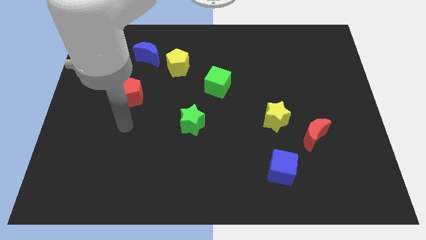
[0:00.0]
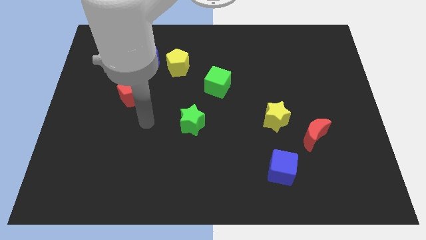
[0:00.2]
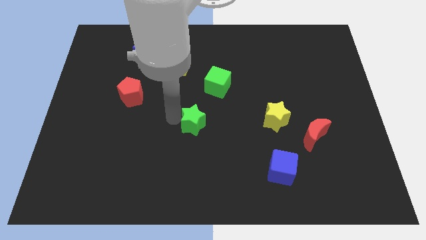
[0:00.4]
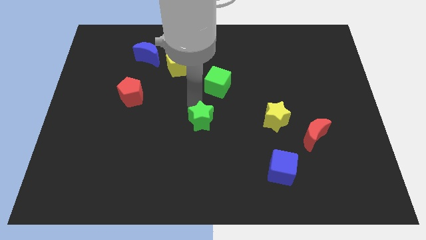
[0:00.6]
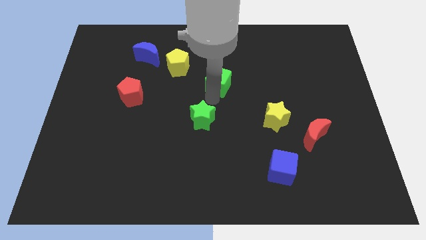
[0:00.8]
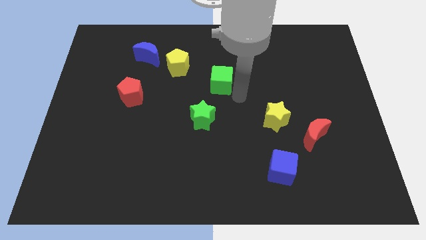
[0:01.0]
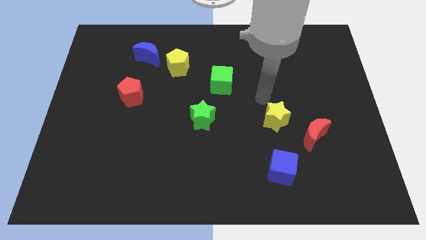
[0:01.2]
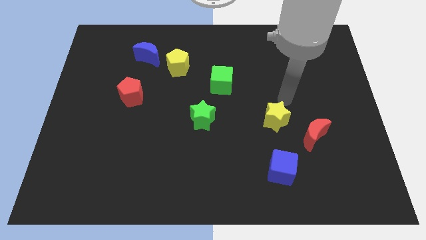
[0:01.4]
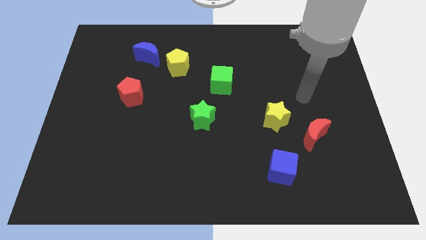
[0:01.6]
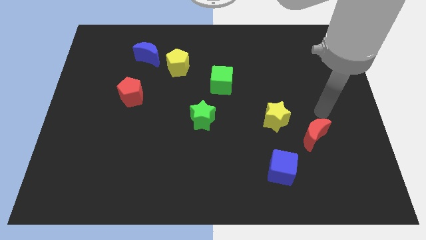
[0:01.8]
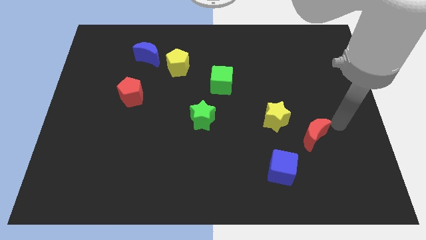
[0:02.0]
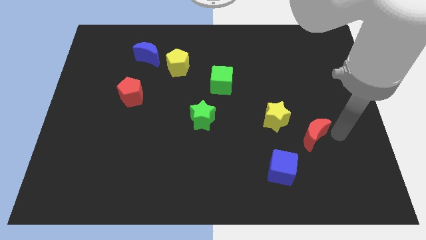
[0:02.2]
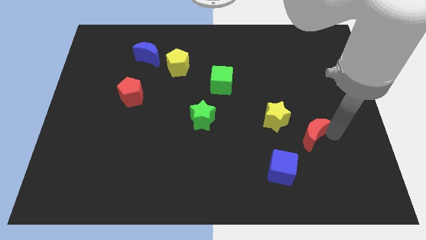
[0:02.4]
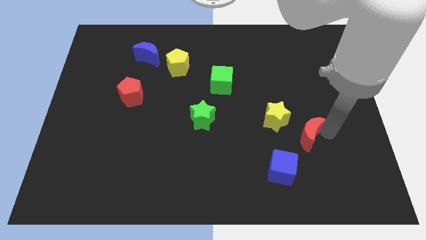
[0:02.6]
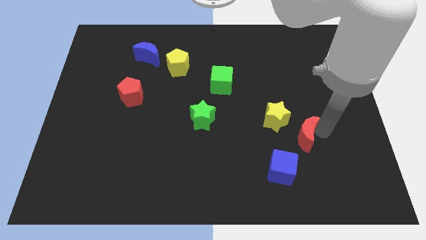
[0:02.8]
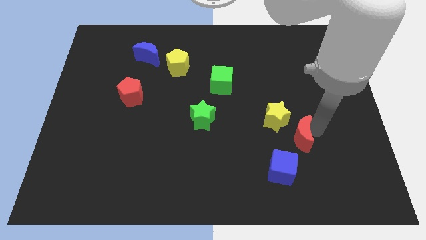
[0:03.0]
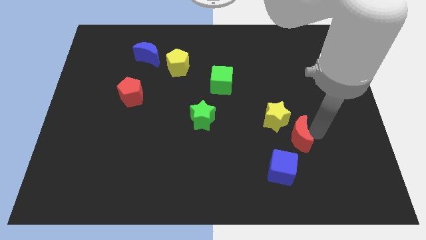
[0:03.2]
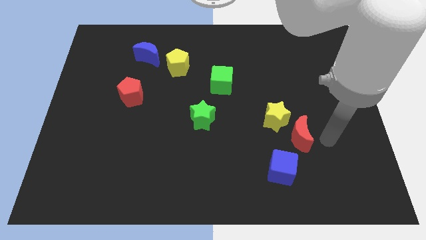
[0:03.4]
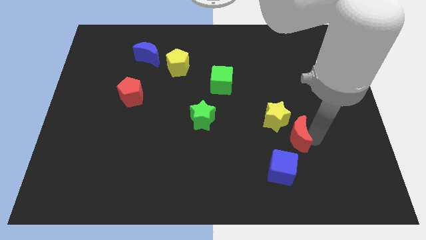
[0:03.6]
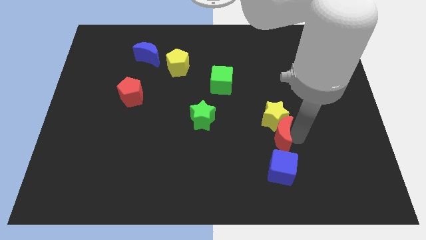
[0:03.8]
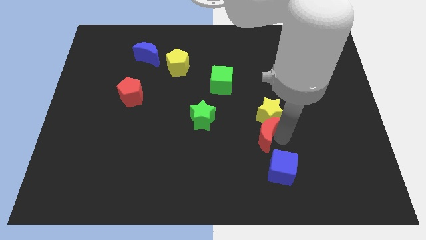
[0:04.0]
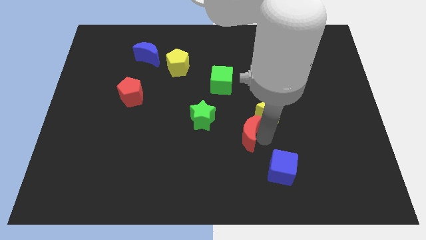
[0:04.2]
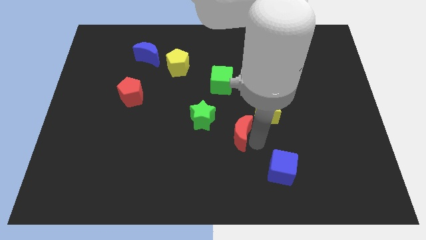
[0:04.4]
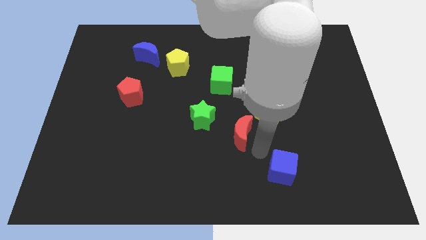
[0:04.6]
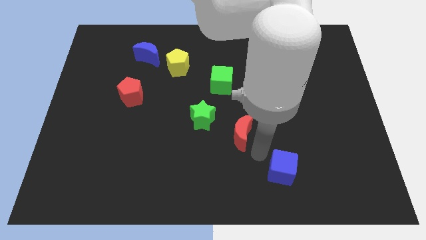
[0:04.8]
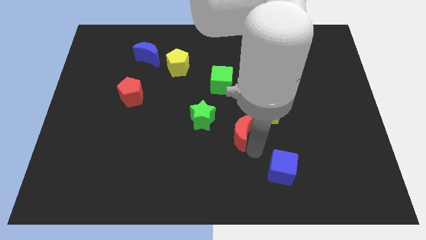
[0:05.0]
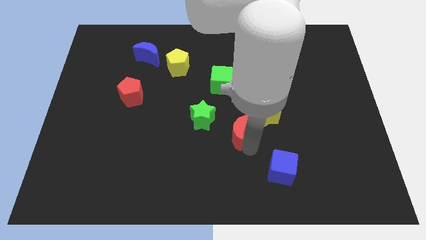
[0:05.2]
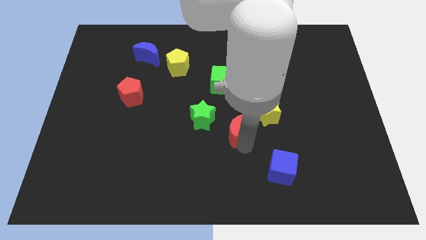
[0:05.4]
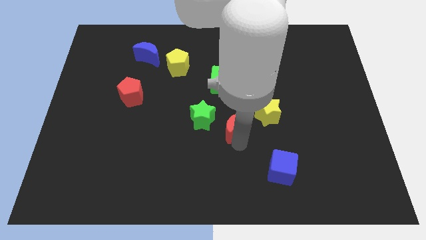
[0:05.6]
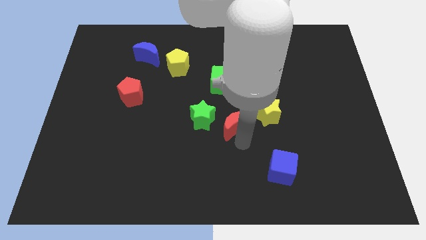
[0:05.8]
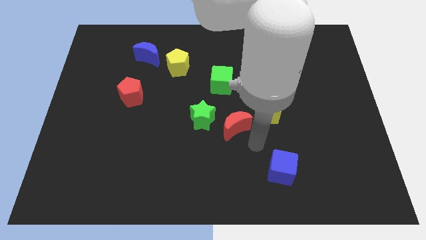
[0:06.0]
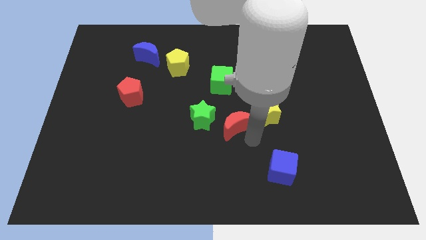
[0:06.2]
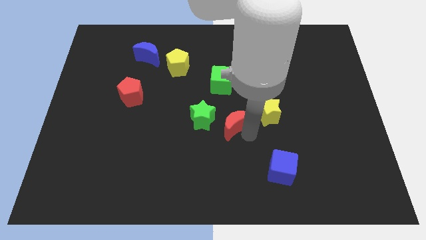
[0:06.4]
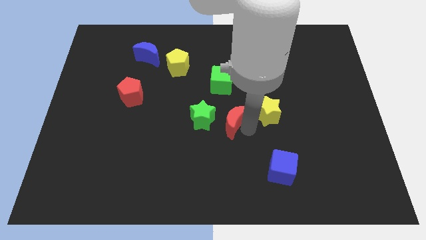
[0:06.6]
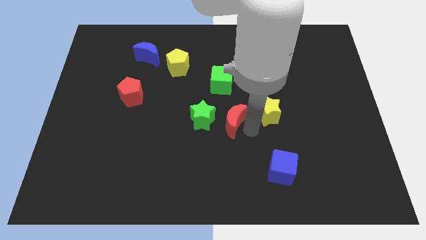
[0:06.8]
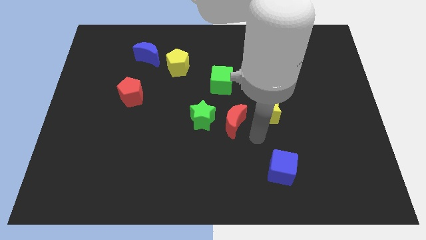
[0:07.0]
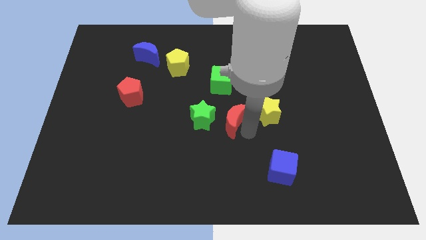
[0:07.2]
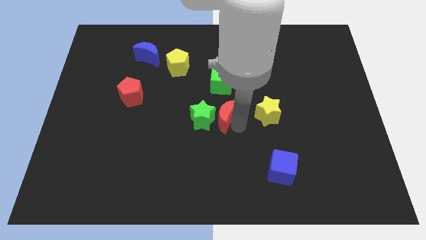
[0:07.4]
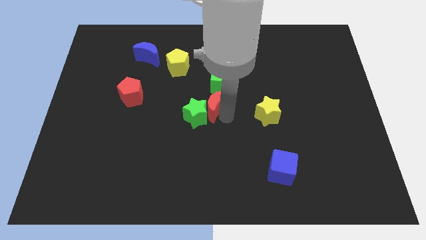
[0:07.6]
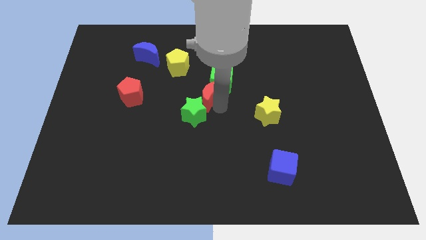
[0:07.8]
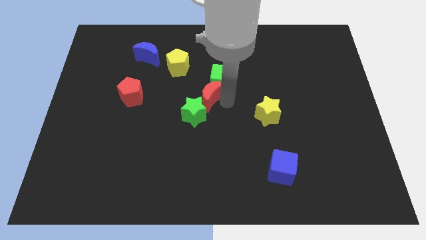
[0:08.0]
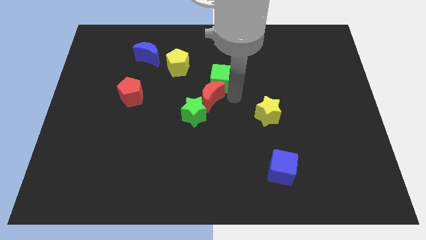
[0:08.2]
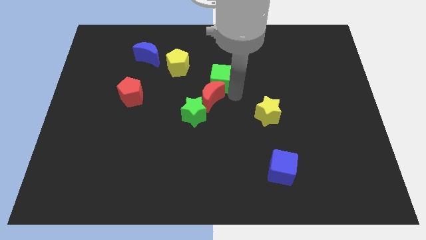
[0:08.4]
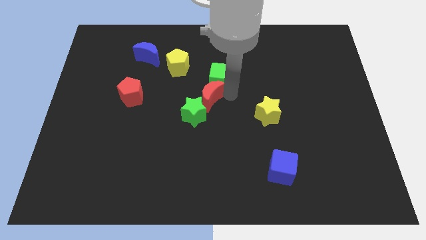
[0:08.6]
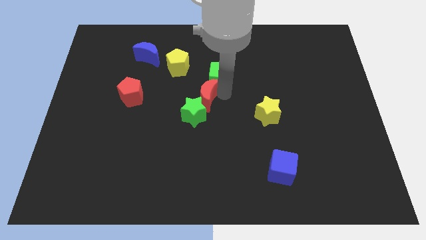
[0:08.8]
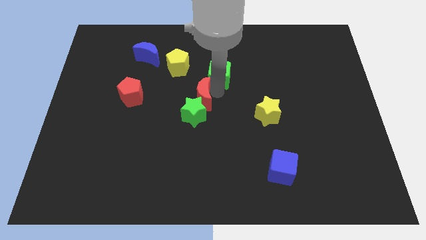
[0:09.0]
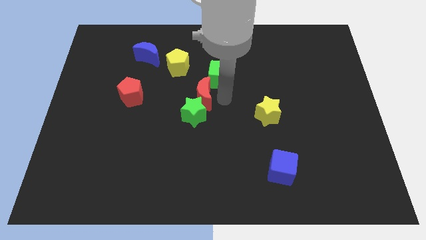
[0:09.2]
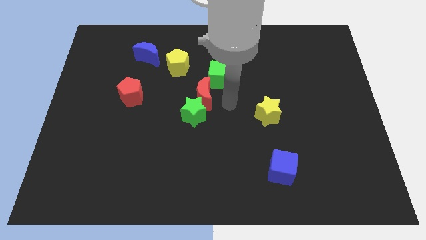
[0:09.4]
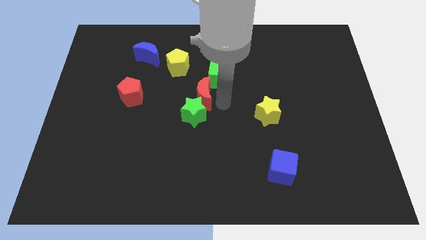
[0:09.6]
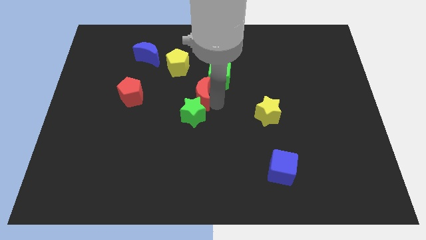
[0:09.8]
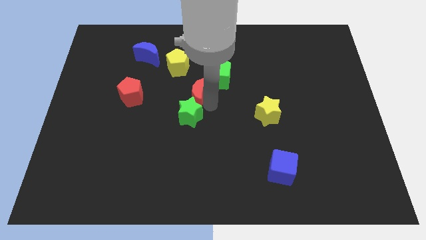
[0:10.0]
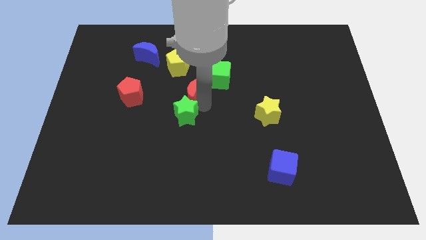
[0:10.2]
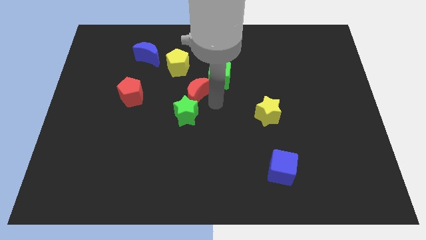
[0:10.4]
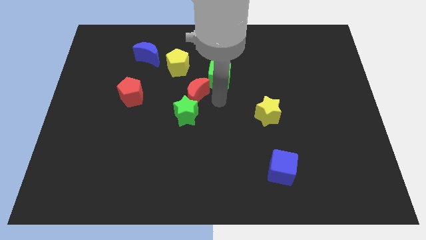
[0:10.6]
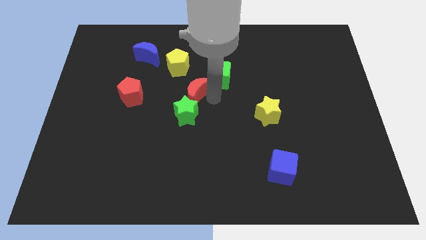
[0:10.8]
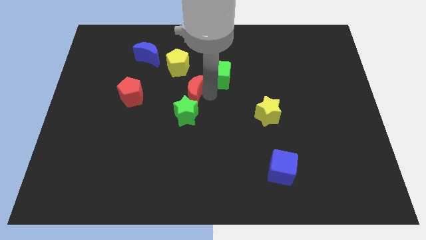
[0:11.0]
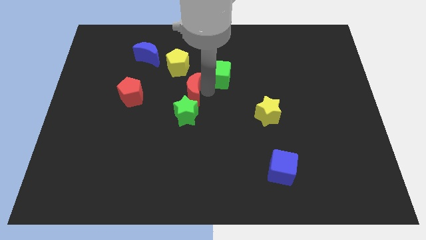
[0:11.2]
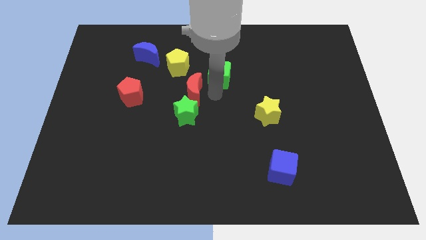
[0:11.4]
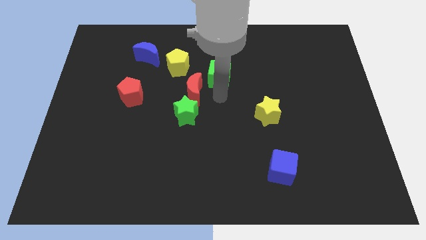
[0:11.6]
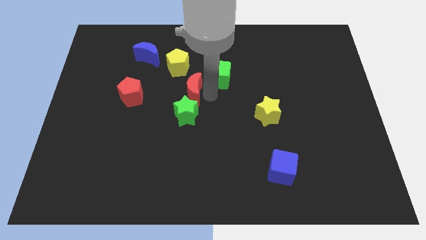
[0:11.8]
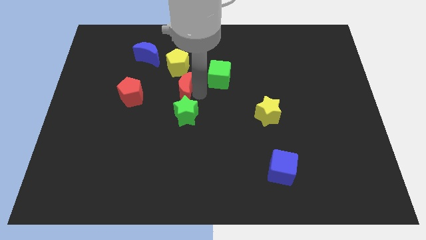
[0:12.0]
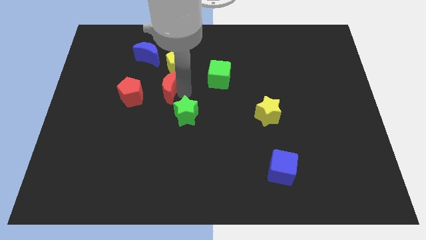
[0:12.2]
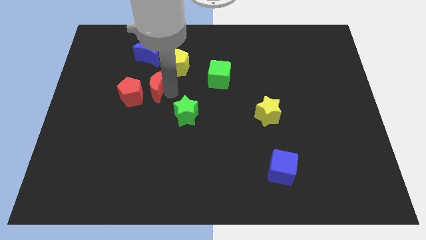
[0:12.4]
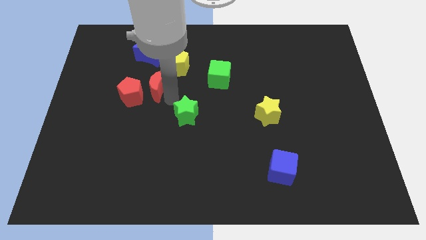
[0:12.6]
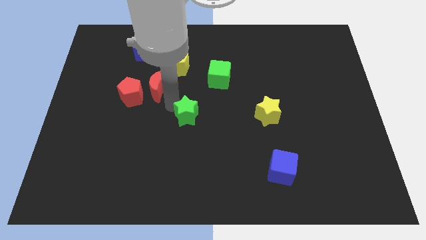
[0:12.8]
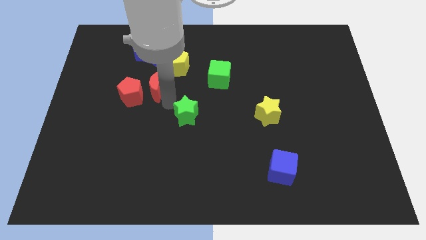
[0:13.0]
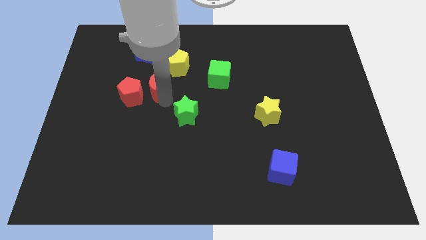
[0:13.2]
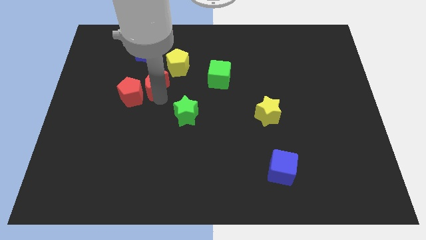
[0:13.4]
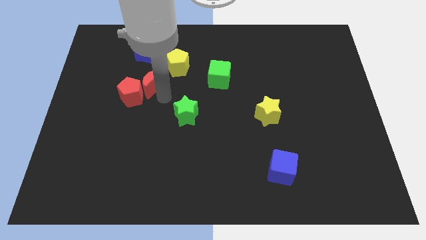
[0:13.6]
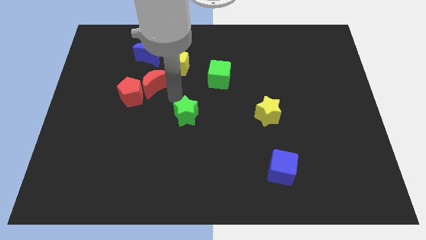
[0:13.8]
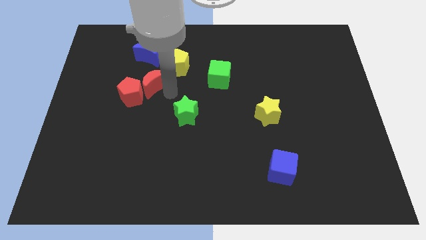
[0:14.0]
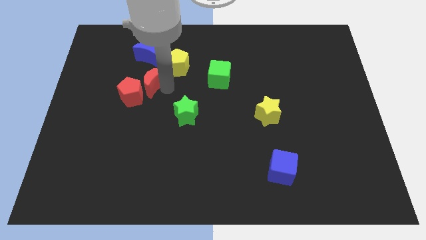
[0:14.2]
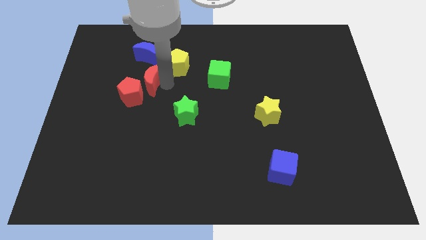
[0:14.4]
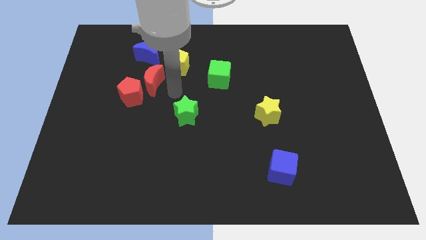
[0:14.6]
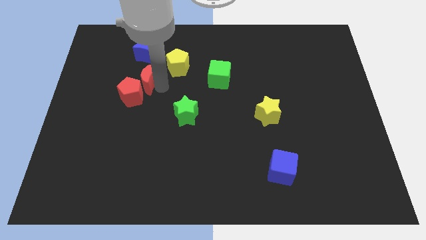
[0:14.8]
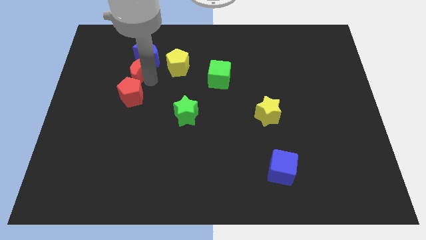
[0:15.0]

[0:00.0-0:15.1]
put the red moon to the bottom left side of the blue moon

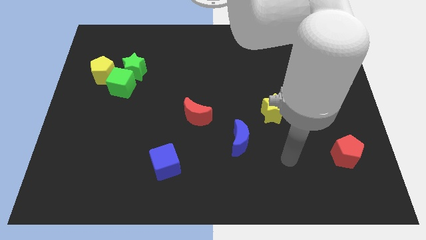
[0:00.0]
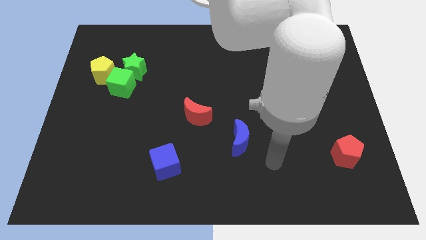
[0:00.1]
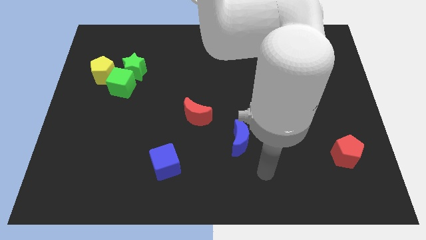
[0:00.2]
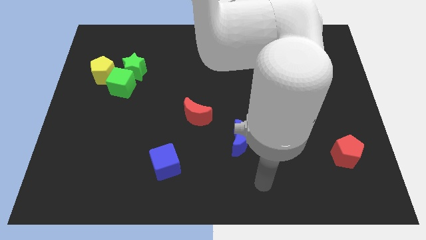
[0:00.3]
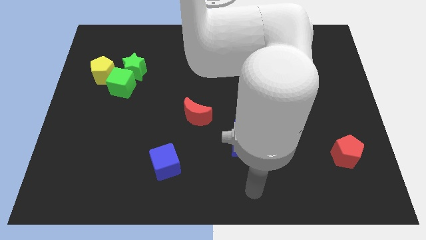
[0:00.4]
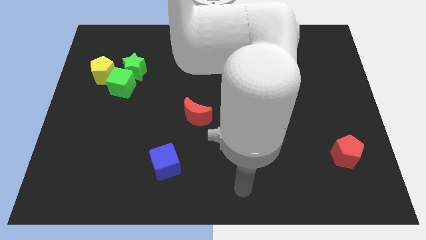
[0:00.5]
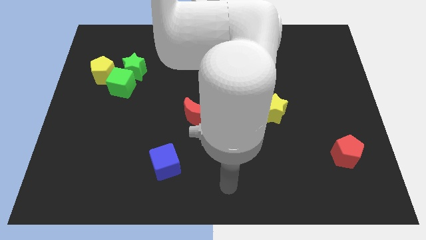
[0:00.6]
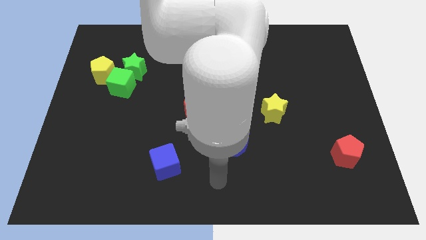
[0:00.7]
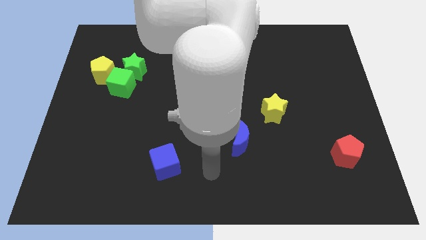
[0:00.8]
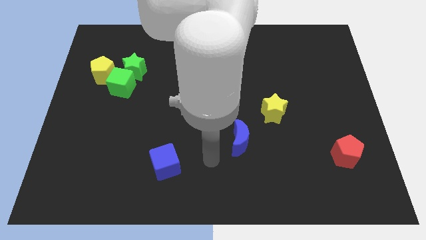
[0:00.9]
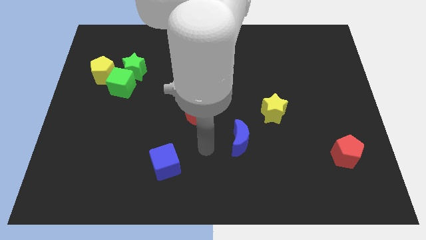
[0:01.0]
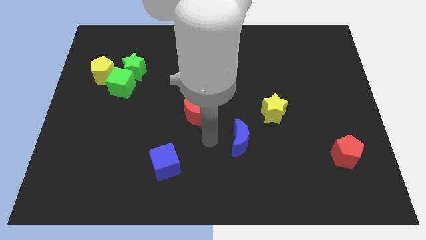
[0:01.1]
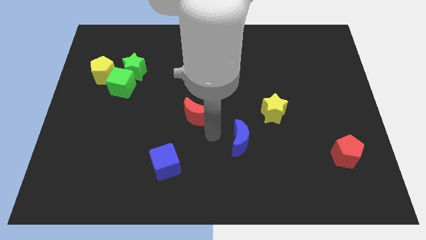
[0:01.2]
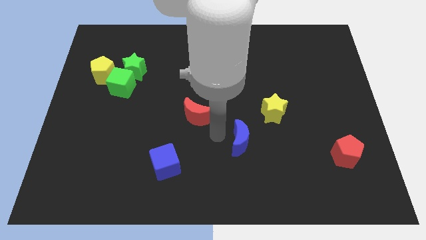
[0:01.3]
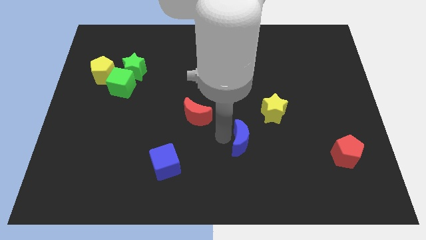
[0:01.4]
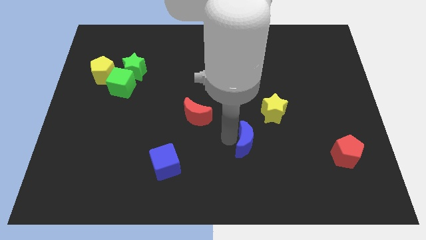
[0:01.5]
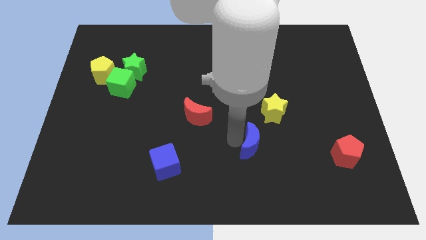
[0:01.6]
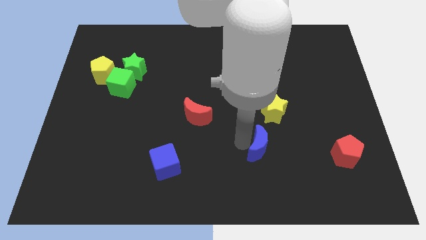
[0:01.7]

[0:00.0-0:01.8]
put the blue moon to the bottom side of the yellow star
